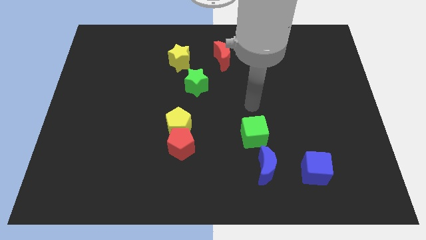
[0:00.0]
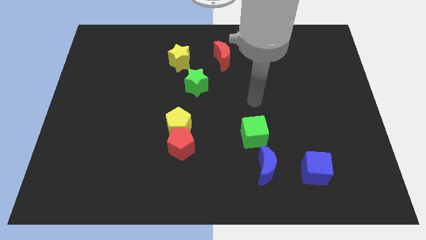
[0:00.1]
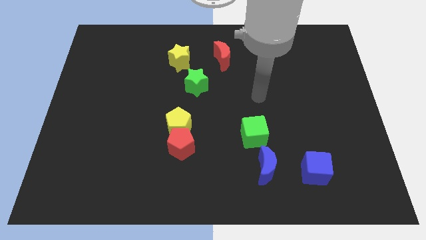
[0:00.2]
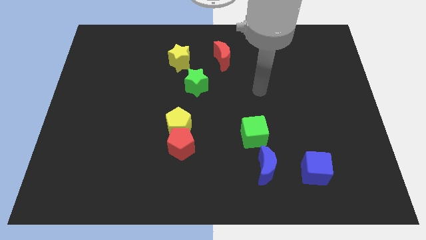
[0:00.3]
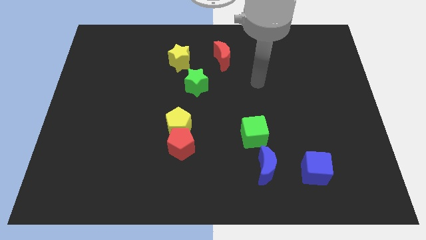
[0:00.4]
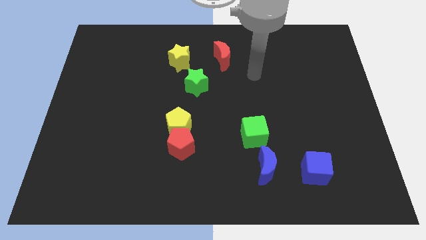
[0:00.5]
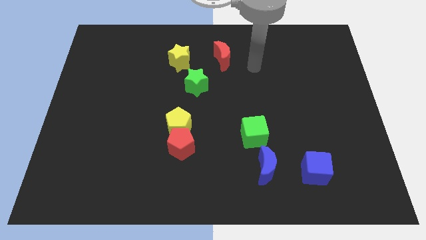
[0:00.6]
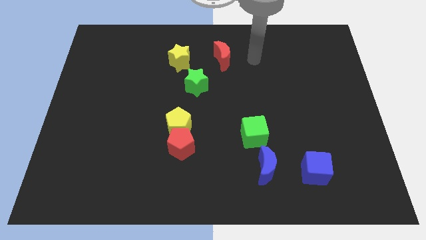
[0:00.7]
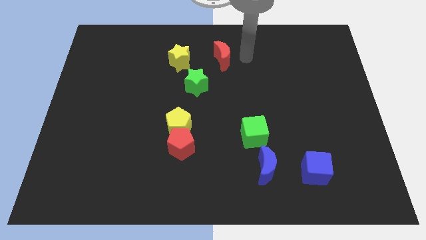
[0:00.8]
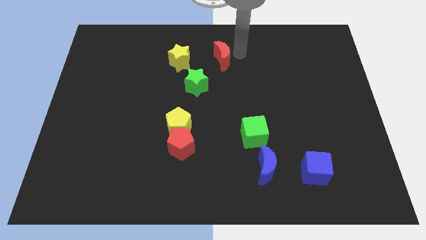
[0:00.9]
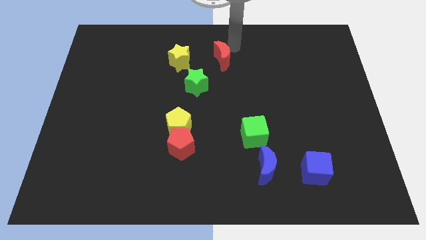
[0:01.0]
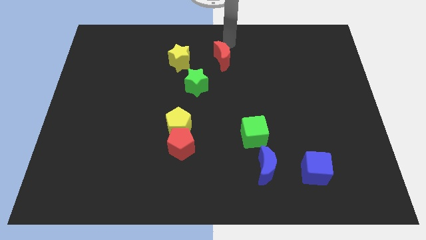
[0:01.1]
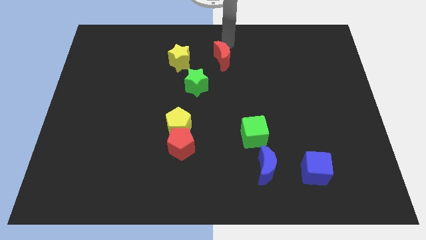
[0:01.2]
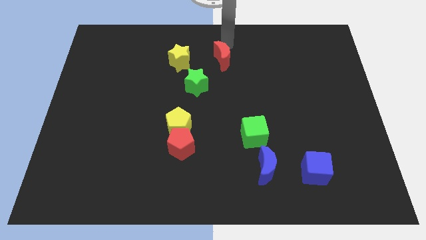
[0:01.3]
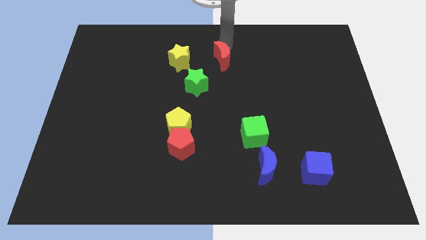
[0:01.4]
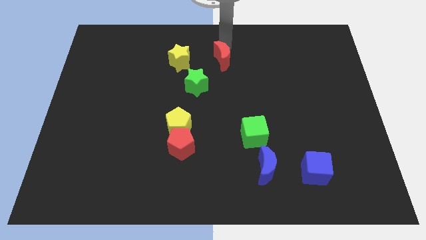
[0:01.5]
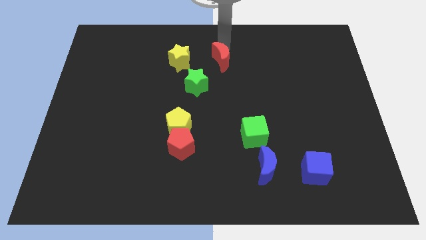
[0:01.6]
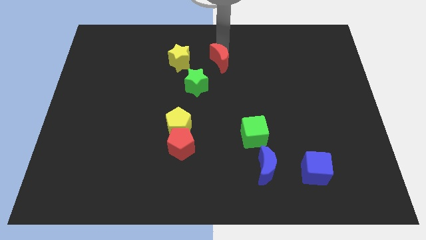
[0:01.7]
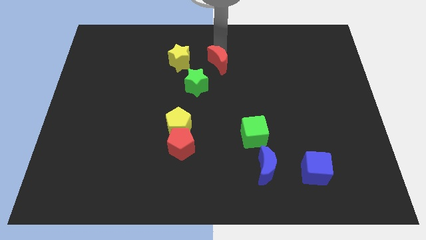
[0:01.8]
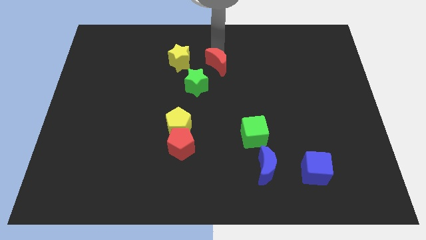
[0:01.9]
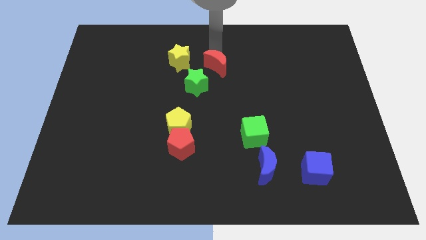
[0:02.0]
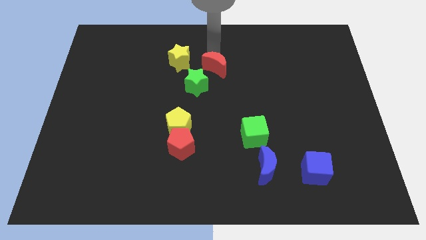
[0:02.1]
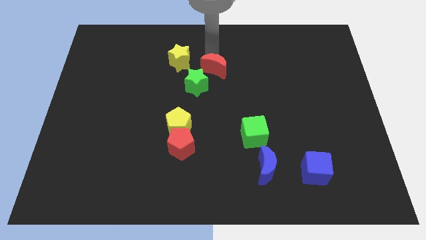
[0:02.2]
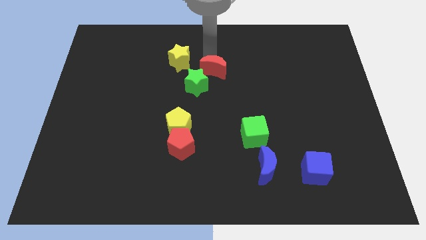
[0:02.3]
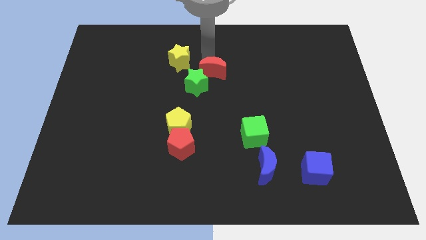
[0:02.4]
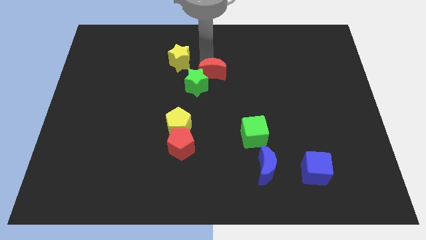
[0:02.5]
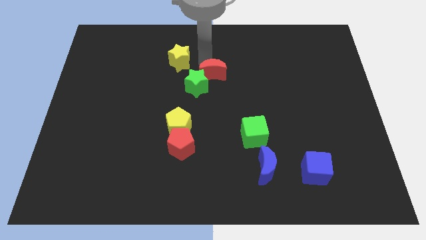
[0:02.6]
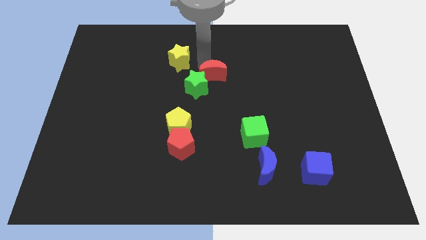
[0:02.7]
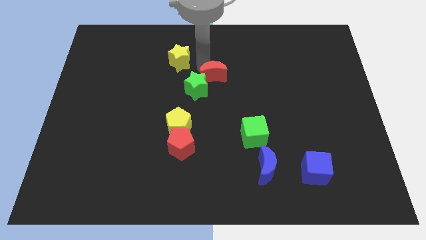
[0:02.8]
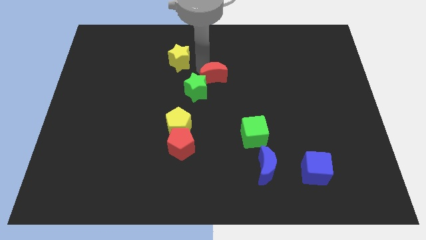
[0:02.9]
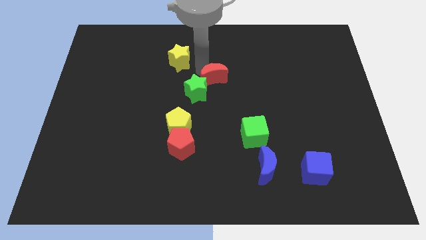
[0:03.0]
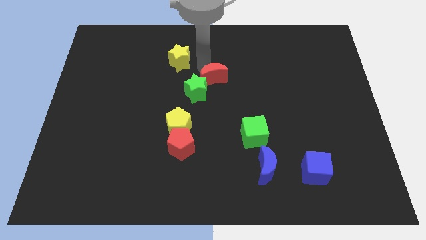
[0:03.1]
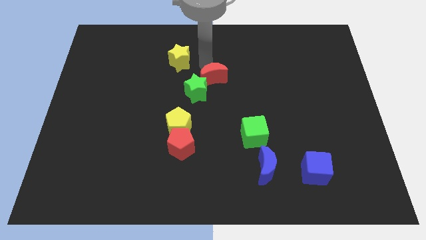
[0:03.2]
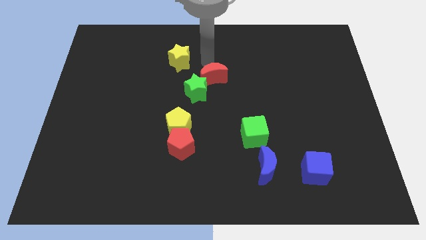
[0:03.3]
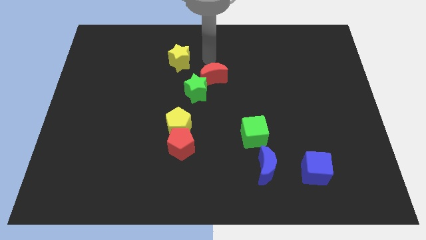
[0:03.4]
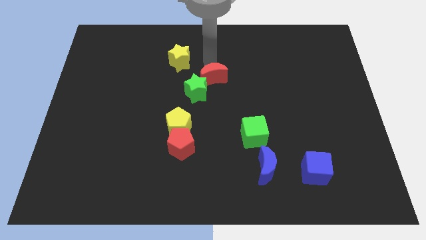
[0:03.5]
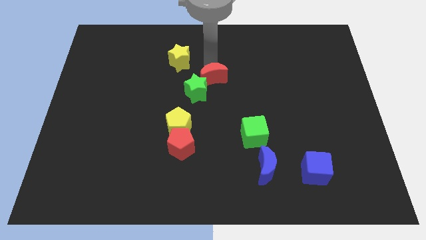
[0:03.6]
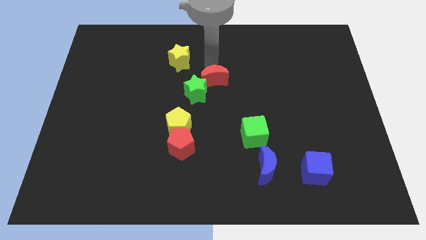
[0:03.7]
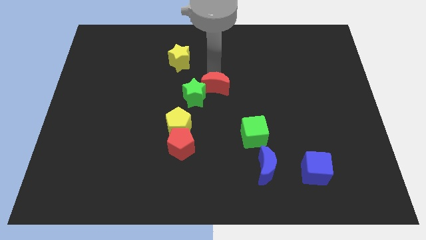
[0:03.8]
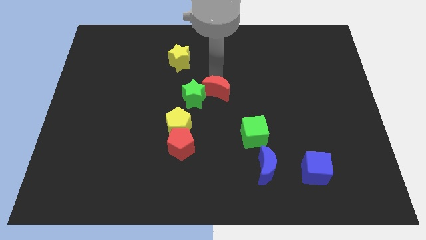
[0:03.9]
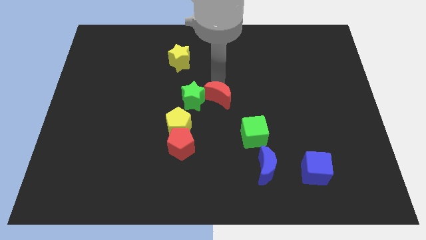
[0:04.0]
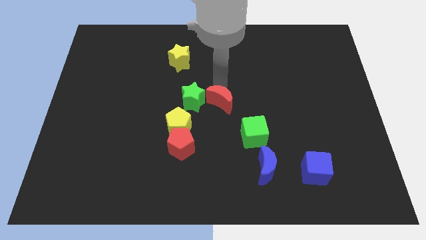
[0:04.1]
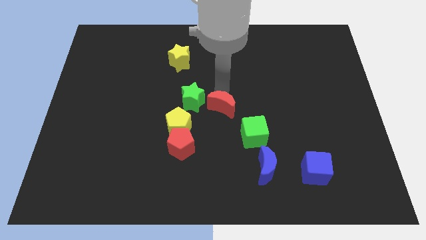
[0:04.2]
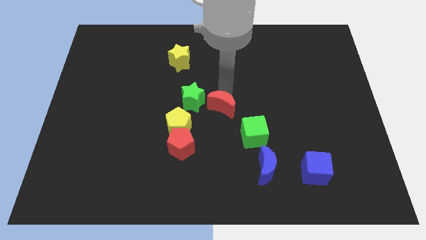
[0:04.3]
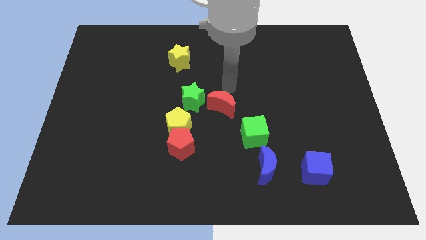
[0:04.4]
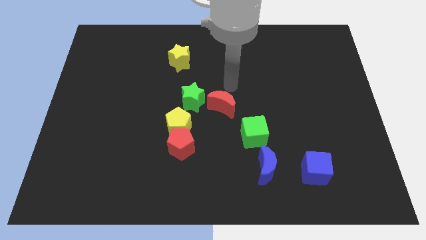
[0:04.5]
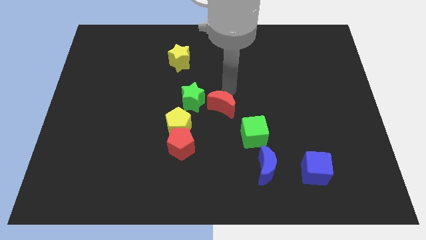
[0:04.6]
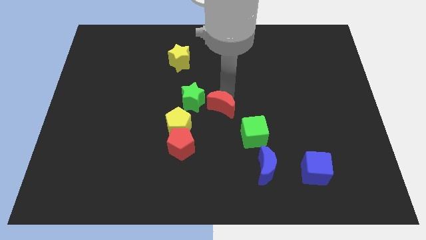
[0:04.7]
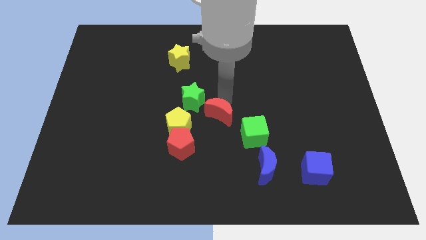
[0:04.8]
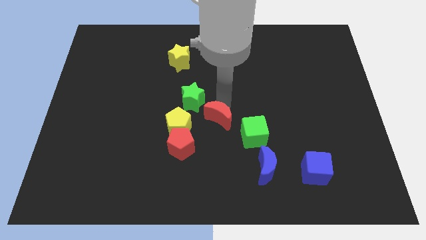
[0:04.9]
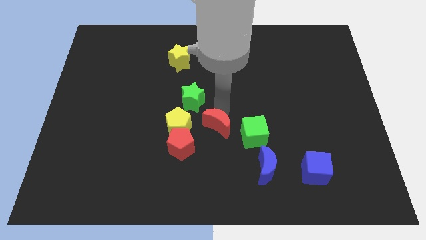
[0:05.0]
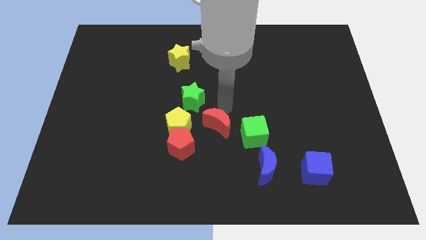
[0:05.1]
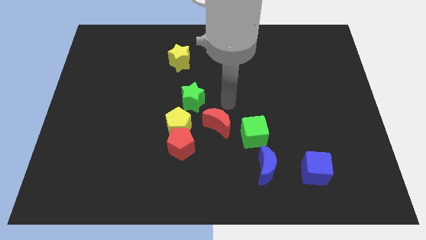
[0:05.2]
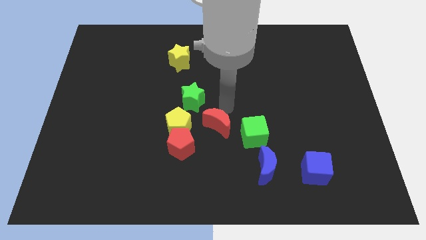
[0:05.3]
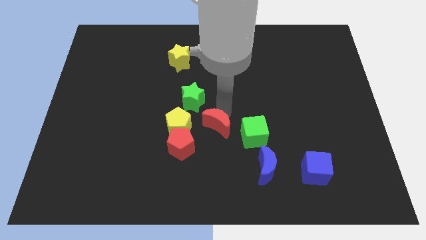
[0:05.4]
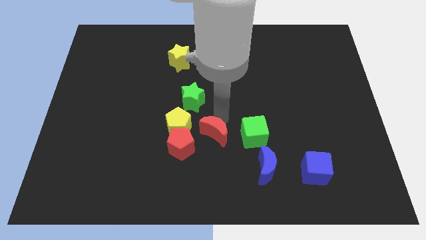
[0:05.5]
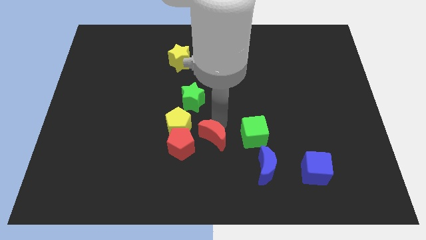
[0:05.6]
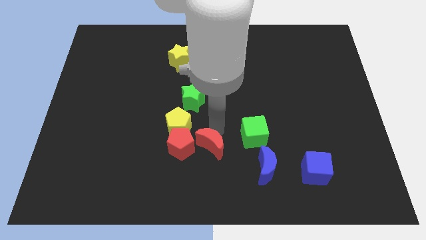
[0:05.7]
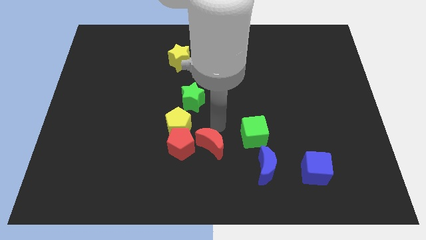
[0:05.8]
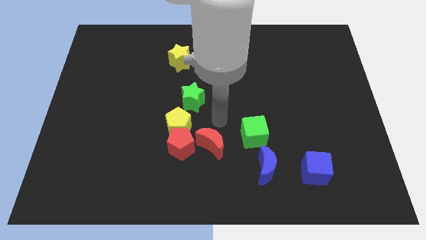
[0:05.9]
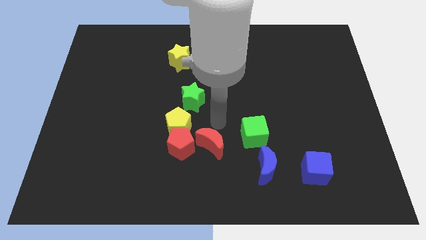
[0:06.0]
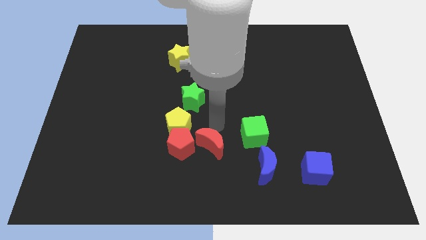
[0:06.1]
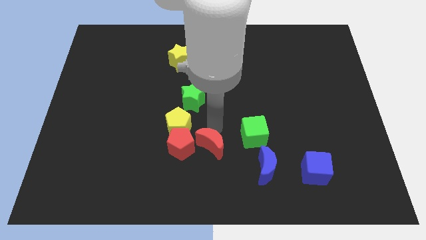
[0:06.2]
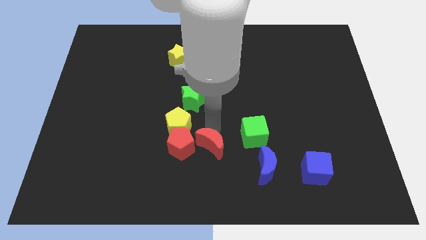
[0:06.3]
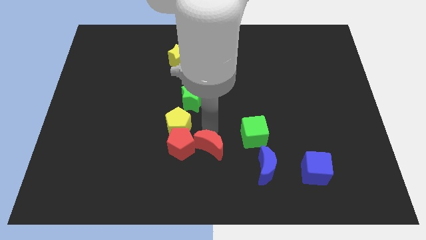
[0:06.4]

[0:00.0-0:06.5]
slide the red moon to the bottom right of the red pentagon

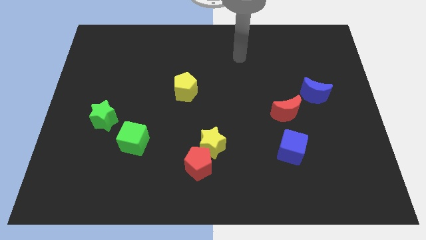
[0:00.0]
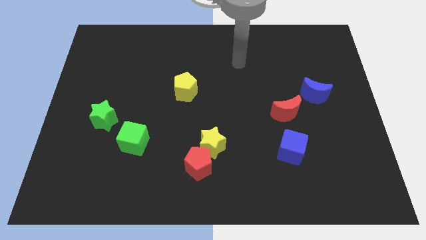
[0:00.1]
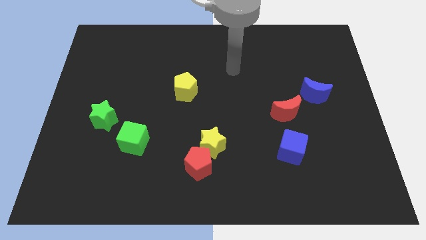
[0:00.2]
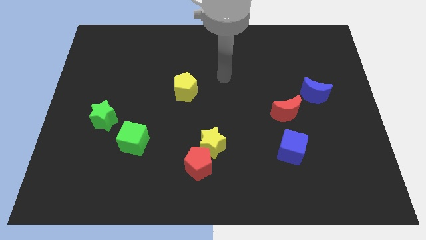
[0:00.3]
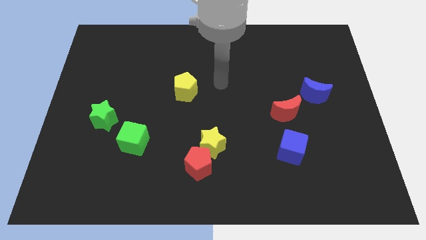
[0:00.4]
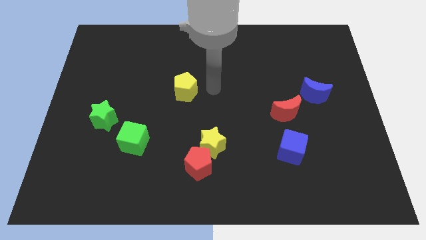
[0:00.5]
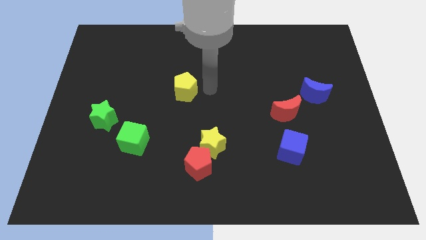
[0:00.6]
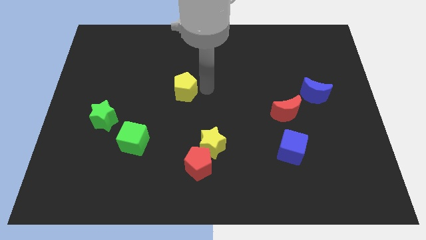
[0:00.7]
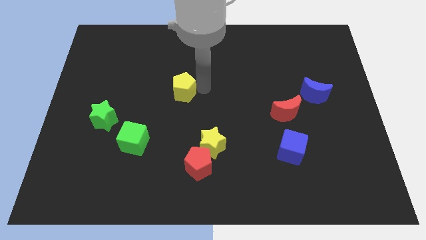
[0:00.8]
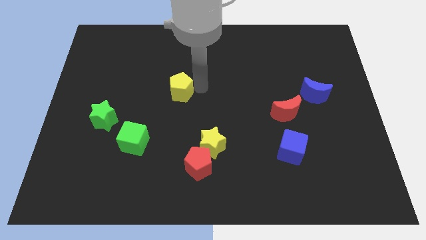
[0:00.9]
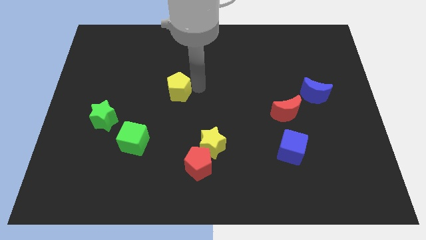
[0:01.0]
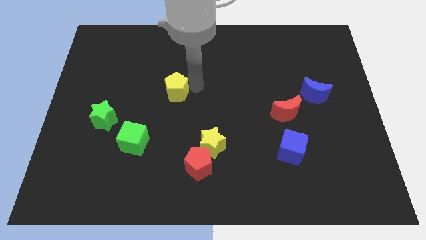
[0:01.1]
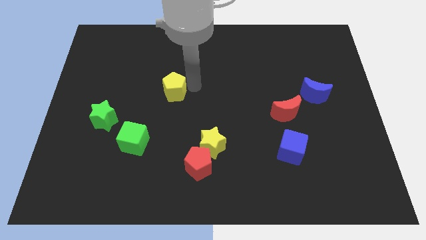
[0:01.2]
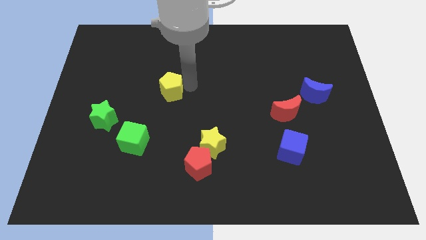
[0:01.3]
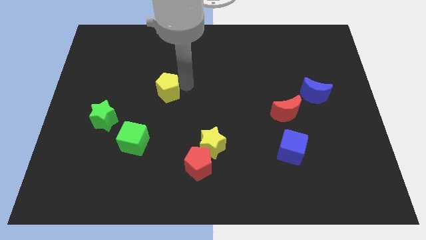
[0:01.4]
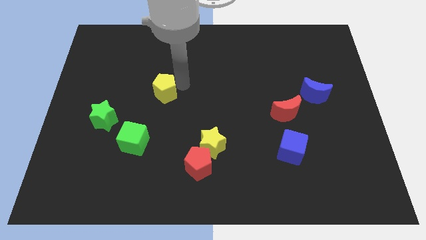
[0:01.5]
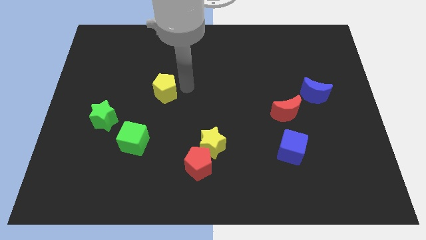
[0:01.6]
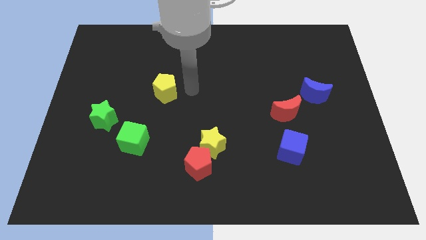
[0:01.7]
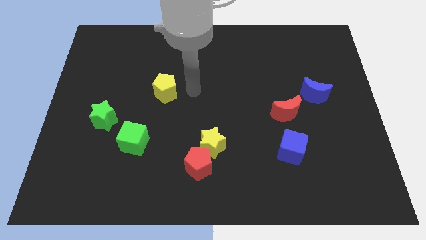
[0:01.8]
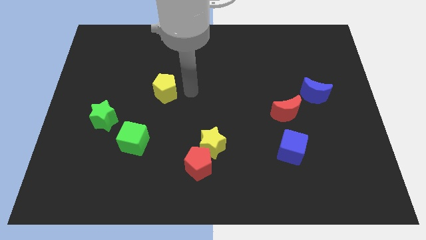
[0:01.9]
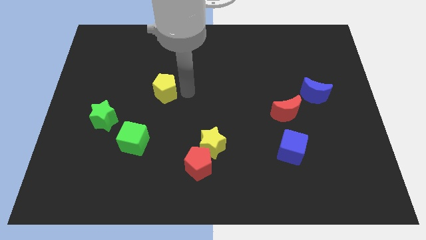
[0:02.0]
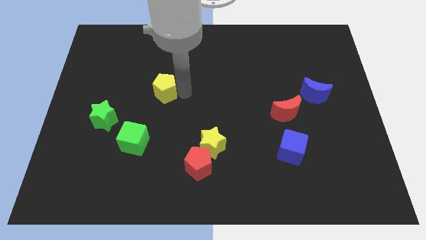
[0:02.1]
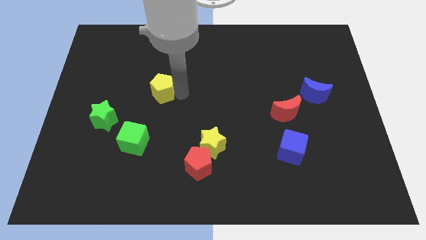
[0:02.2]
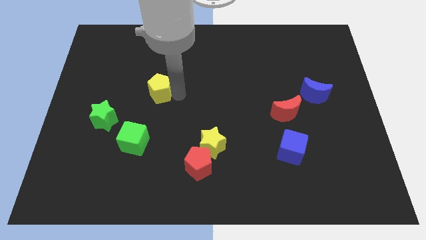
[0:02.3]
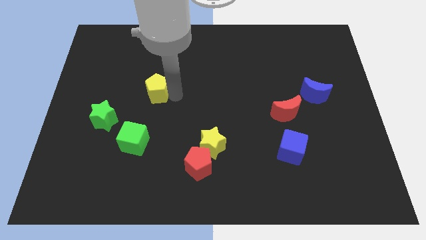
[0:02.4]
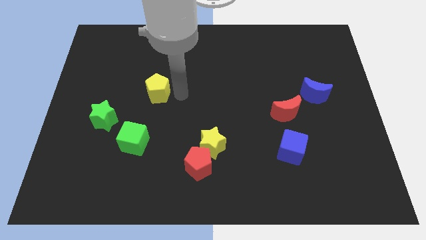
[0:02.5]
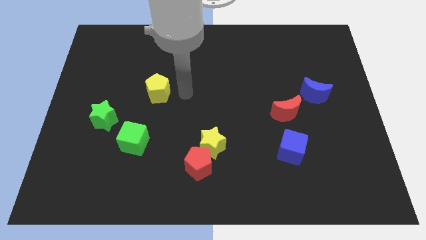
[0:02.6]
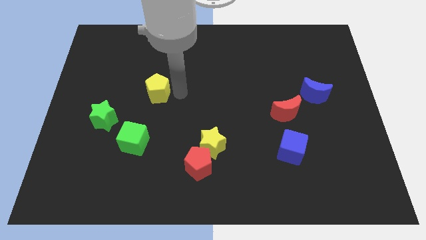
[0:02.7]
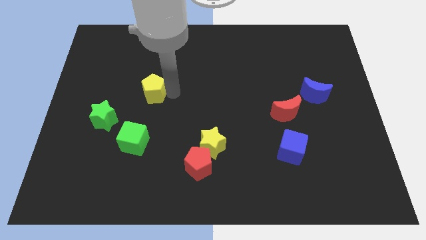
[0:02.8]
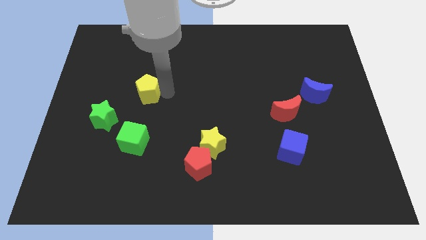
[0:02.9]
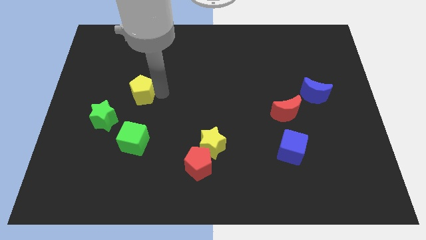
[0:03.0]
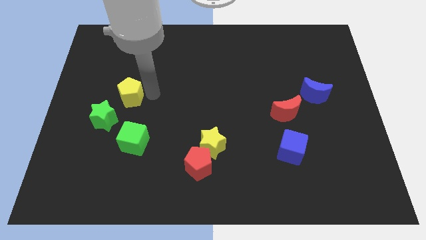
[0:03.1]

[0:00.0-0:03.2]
move the yellow pentagon to the top side of the green star
